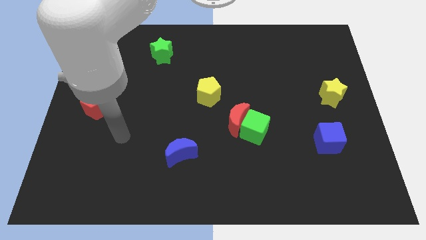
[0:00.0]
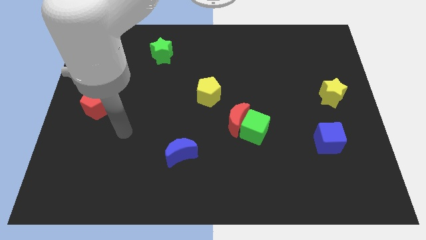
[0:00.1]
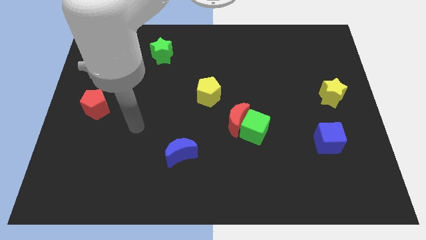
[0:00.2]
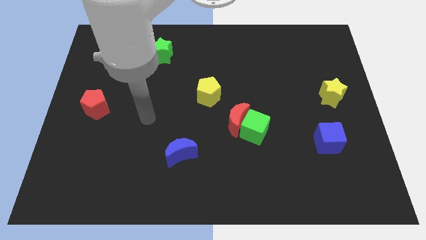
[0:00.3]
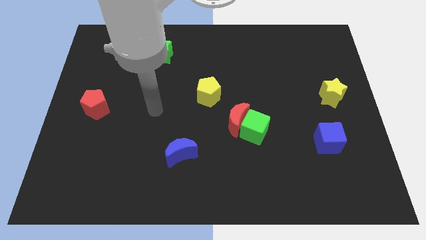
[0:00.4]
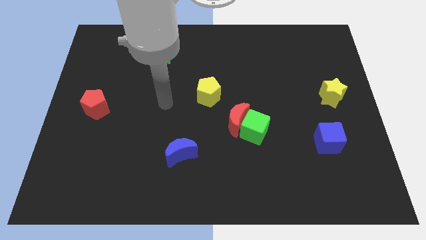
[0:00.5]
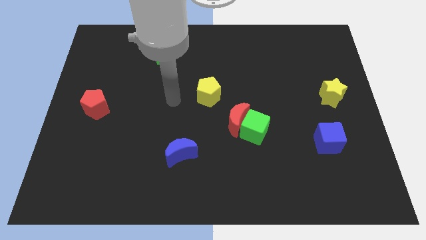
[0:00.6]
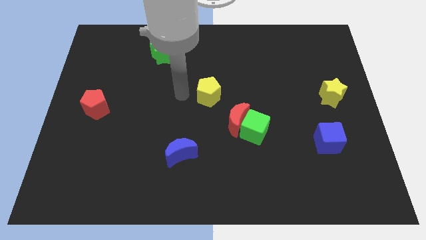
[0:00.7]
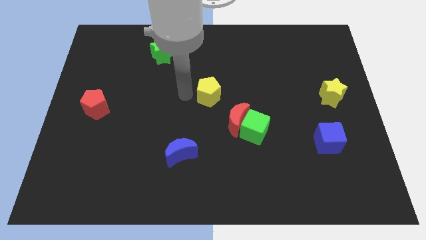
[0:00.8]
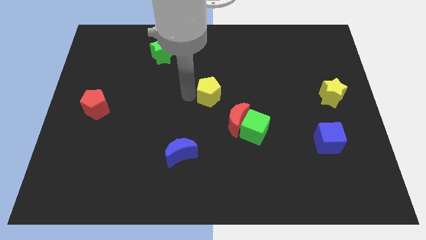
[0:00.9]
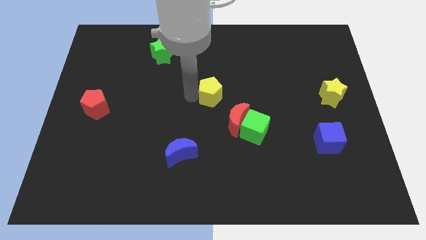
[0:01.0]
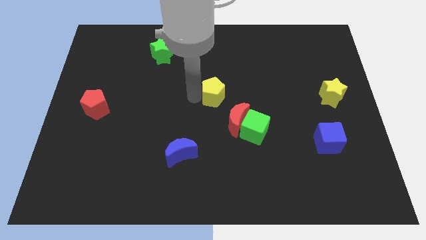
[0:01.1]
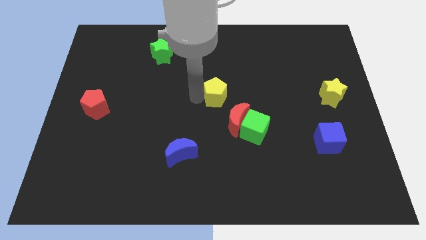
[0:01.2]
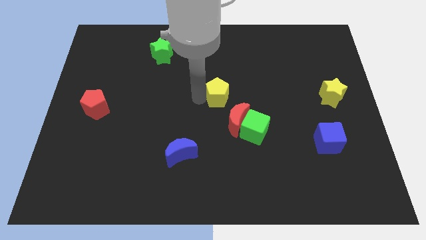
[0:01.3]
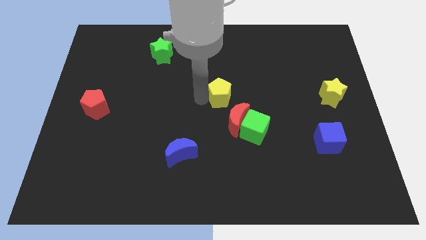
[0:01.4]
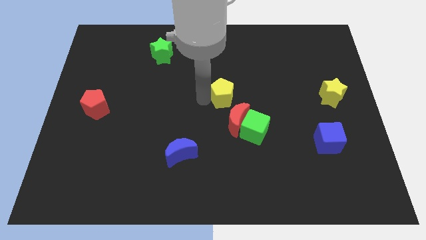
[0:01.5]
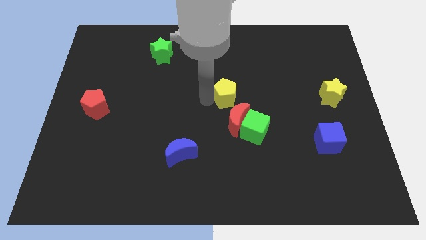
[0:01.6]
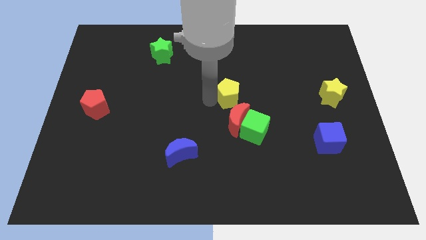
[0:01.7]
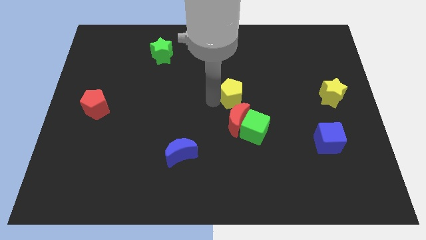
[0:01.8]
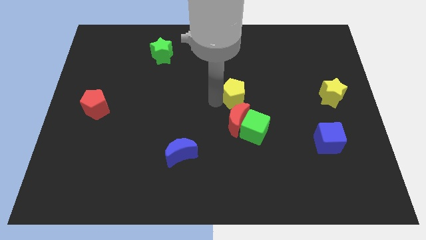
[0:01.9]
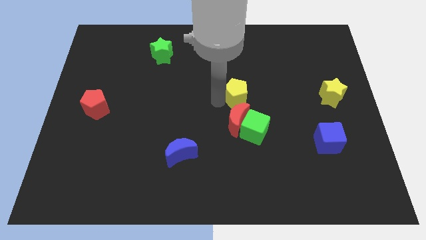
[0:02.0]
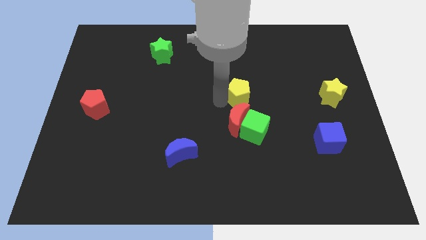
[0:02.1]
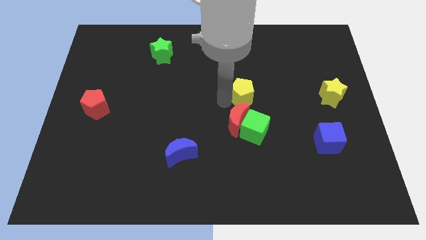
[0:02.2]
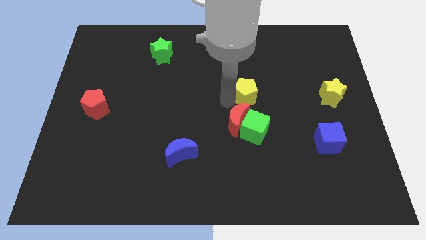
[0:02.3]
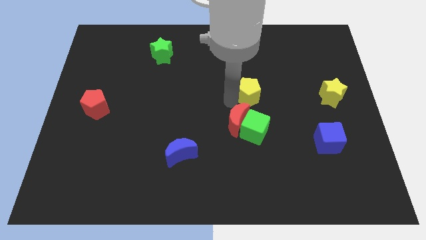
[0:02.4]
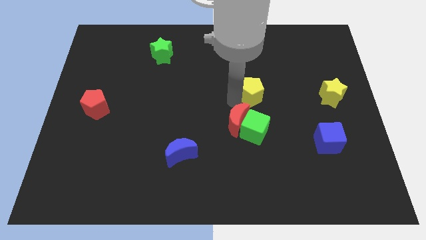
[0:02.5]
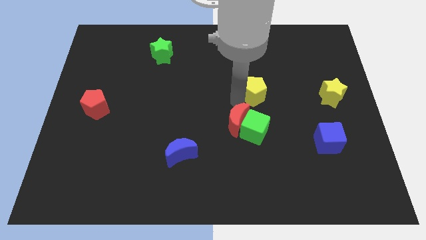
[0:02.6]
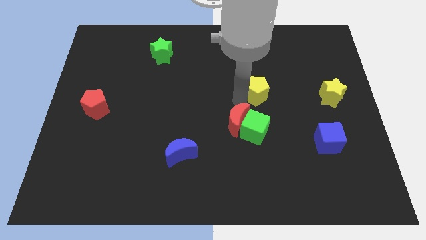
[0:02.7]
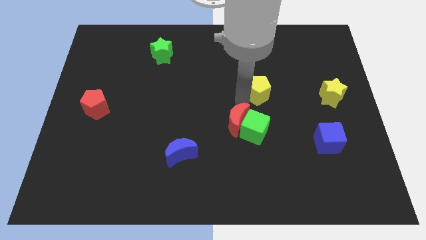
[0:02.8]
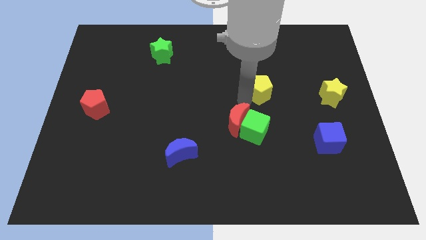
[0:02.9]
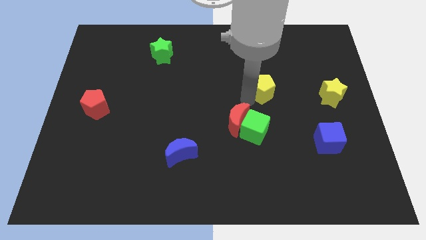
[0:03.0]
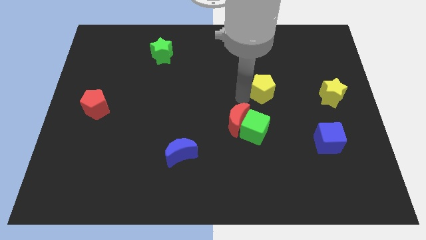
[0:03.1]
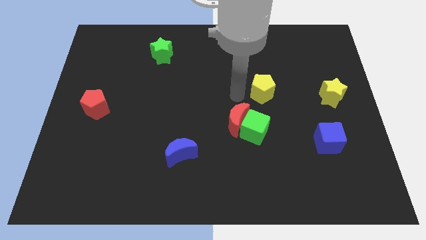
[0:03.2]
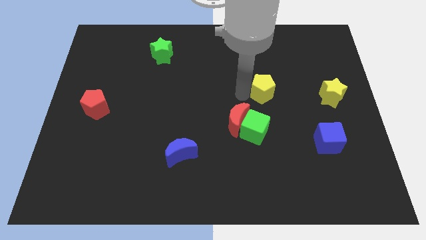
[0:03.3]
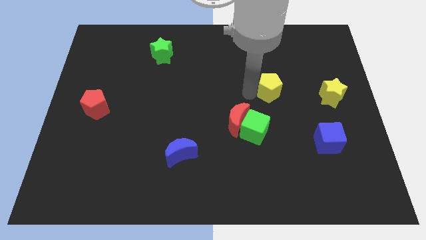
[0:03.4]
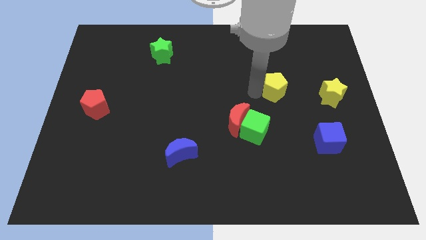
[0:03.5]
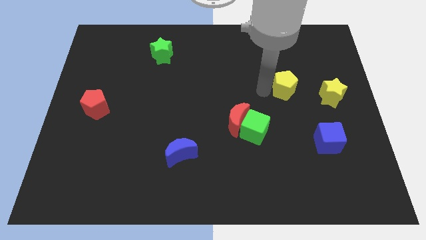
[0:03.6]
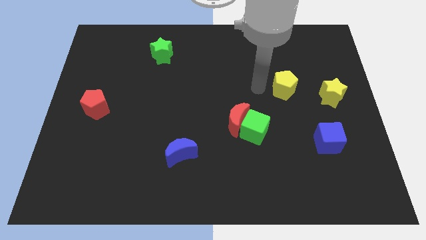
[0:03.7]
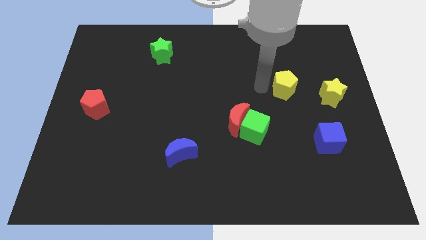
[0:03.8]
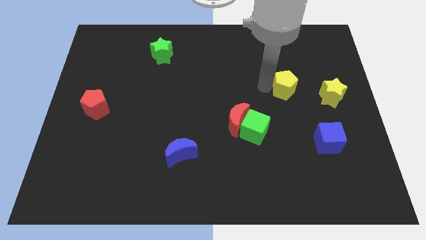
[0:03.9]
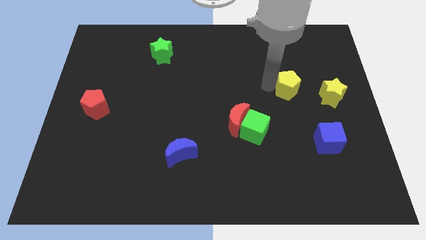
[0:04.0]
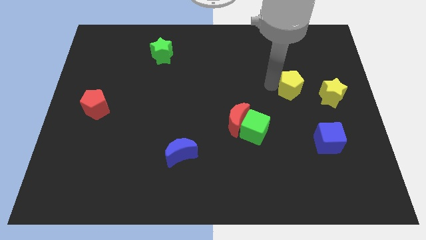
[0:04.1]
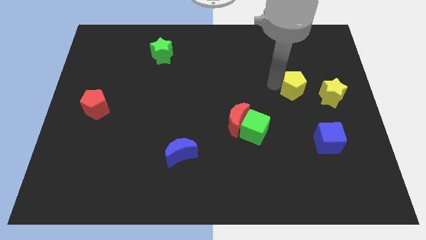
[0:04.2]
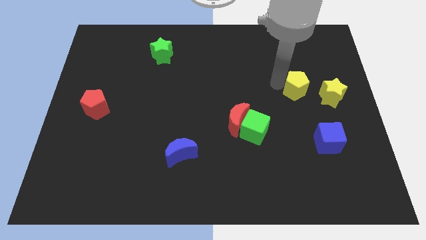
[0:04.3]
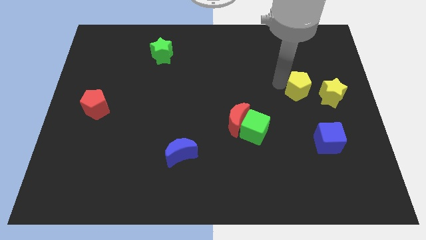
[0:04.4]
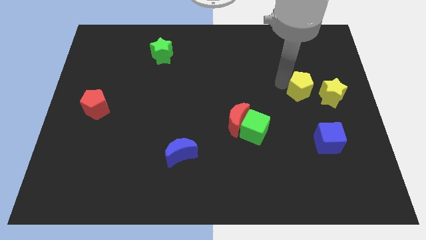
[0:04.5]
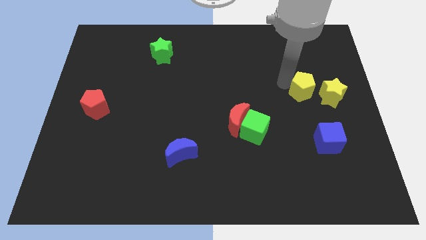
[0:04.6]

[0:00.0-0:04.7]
put the yellow pentagon to the top side of the blue cube

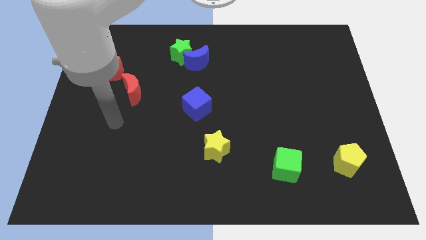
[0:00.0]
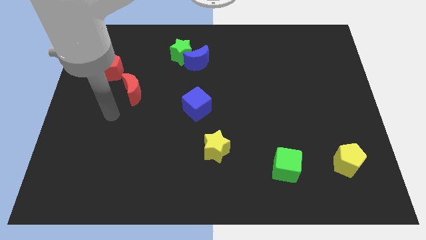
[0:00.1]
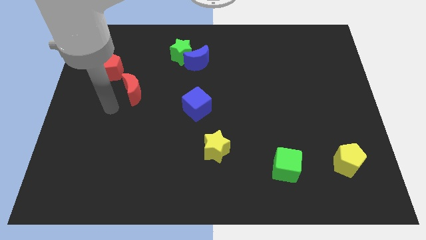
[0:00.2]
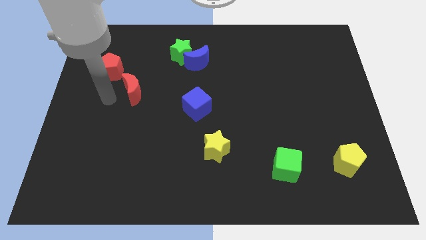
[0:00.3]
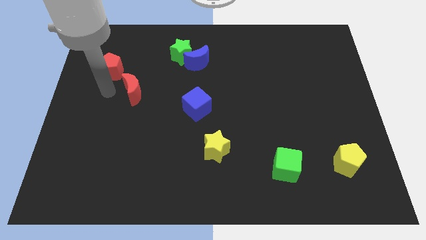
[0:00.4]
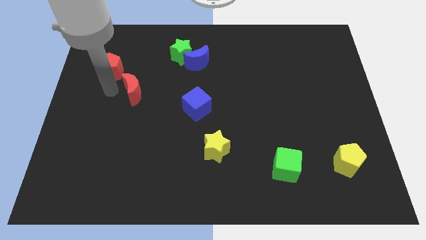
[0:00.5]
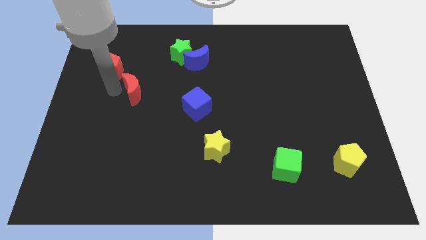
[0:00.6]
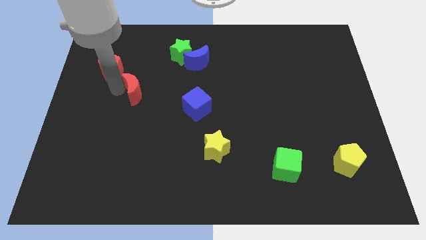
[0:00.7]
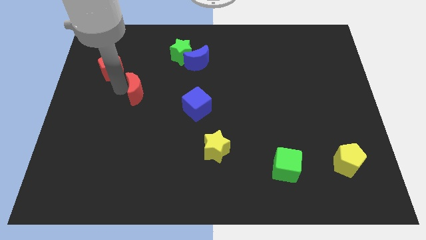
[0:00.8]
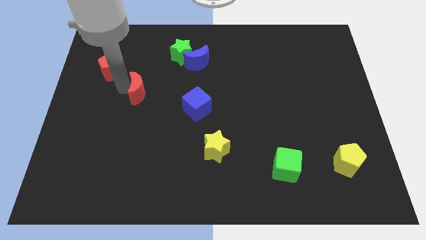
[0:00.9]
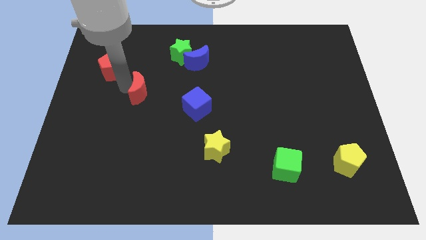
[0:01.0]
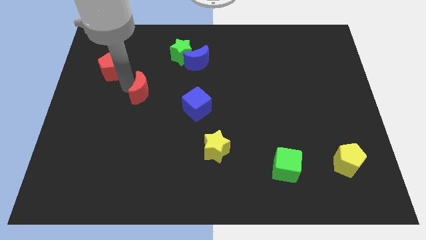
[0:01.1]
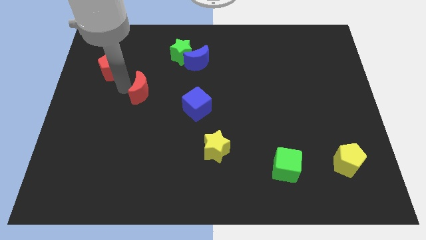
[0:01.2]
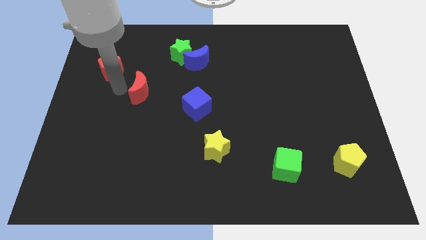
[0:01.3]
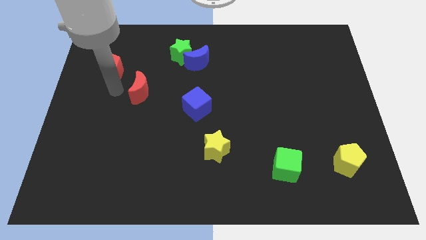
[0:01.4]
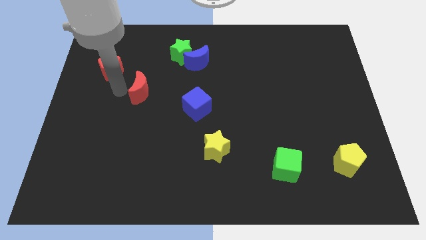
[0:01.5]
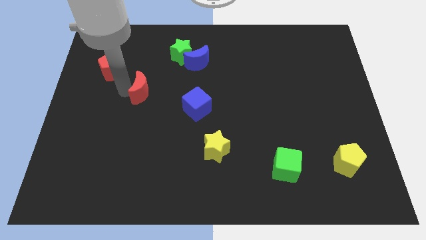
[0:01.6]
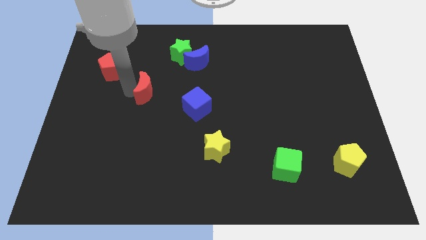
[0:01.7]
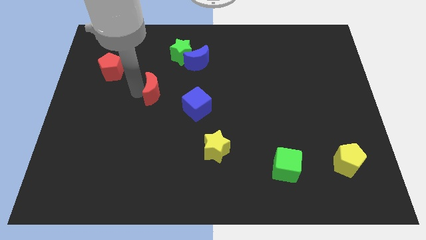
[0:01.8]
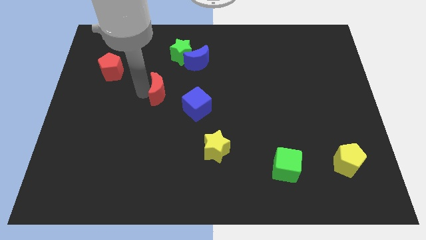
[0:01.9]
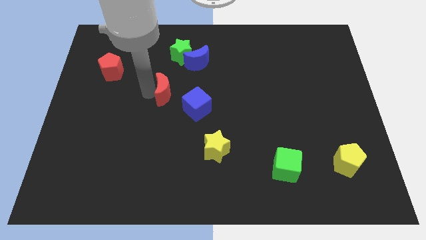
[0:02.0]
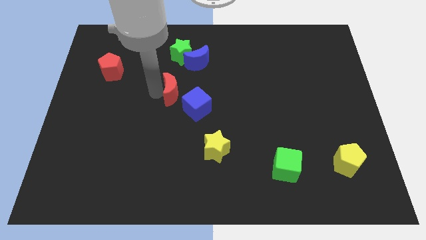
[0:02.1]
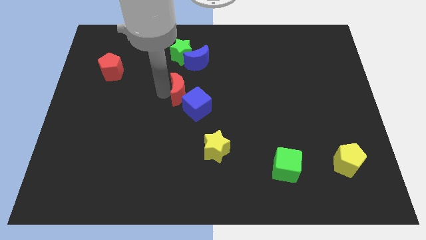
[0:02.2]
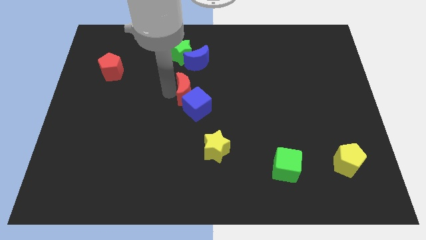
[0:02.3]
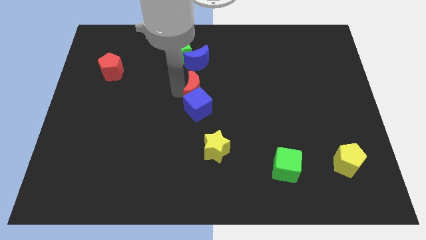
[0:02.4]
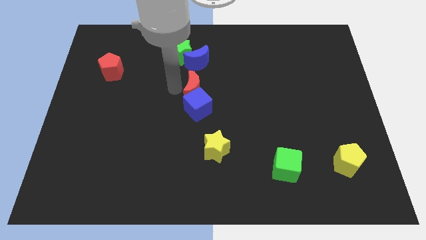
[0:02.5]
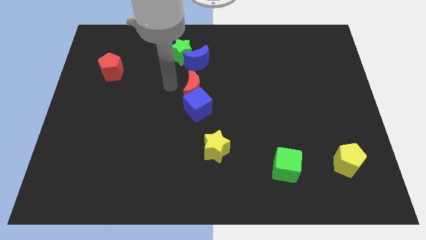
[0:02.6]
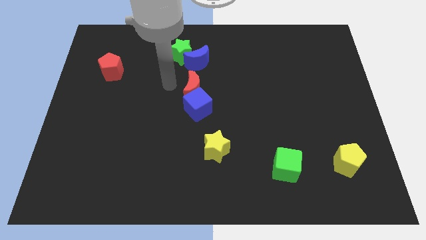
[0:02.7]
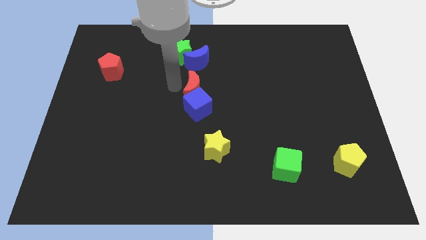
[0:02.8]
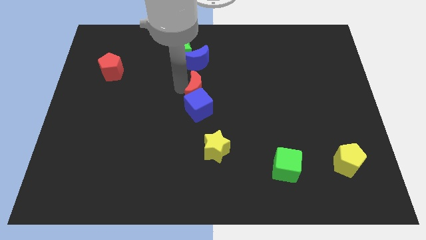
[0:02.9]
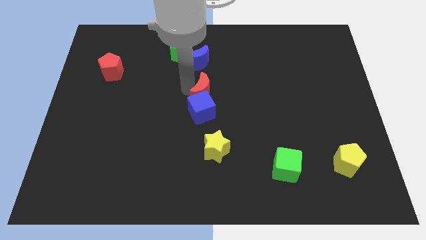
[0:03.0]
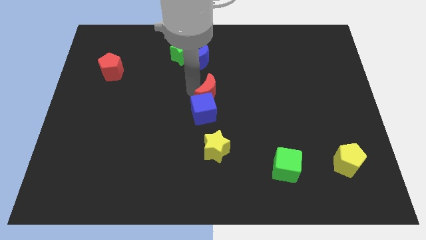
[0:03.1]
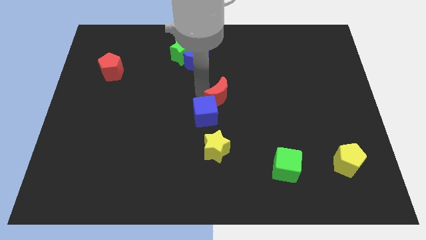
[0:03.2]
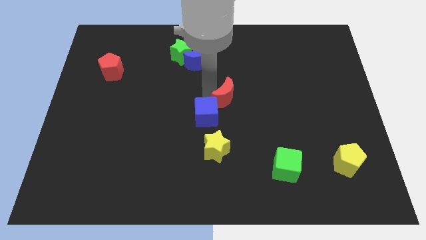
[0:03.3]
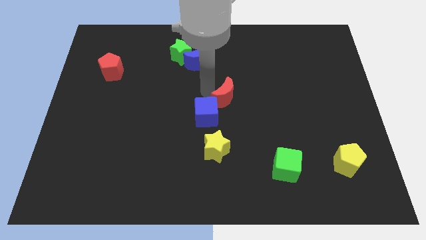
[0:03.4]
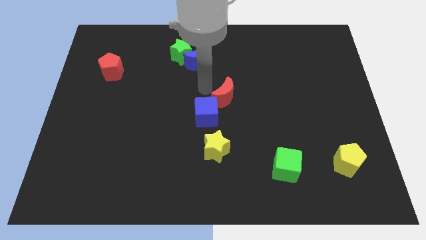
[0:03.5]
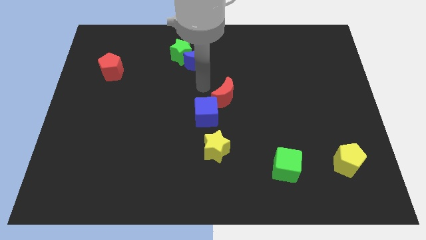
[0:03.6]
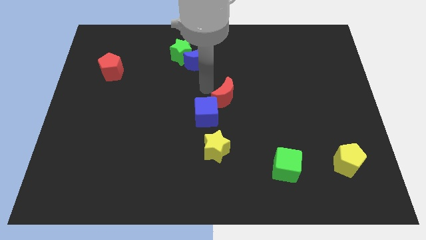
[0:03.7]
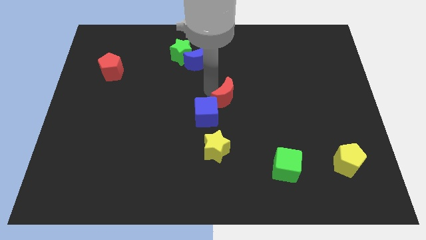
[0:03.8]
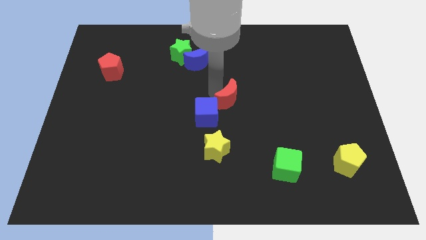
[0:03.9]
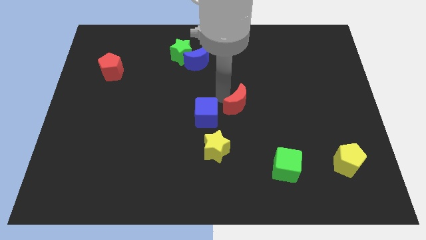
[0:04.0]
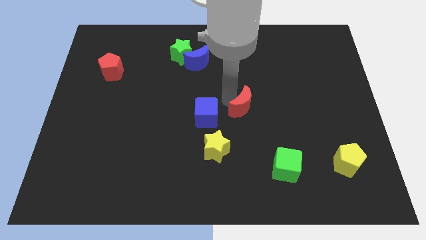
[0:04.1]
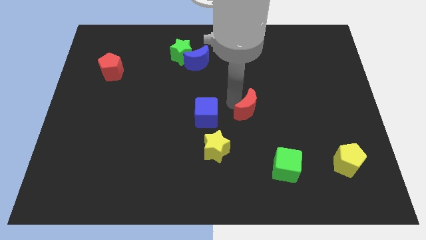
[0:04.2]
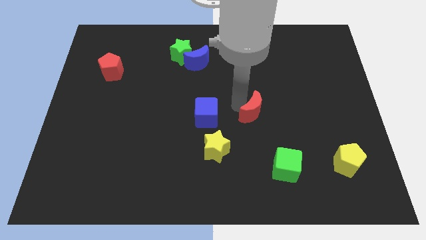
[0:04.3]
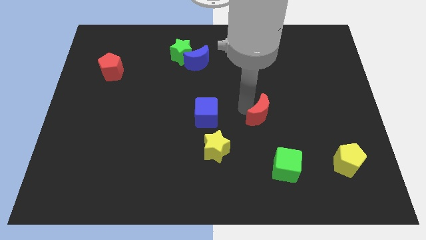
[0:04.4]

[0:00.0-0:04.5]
put the red moon to the top of the green cube
